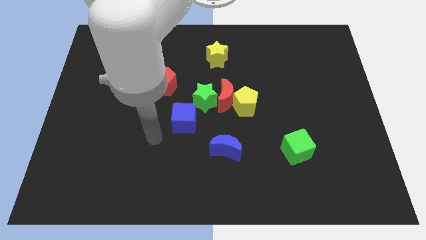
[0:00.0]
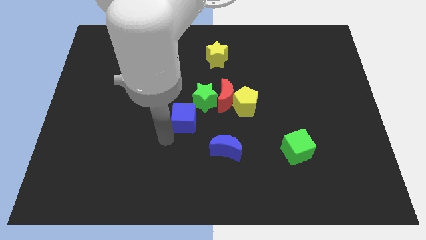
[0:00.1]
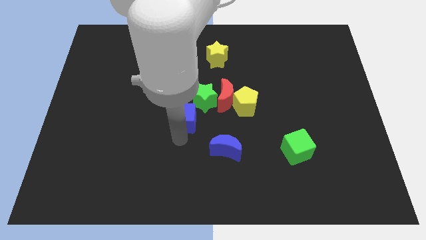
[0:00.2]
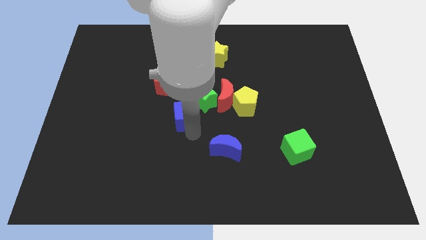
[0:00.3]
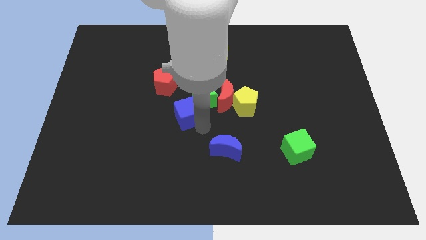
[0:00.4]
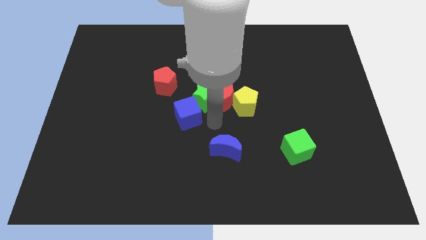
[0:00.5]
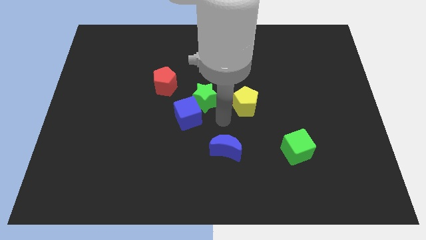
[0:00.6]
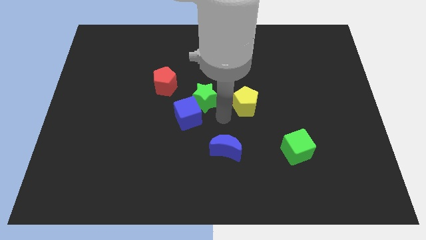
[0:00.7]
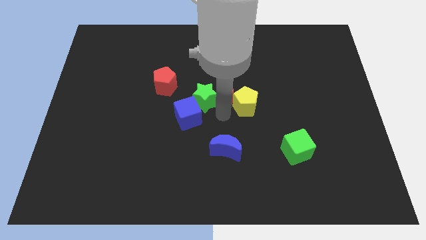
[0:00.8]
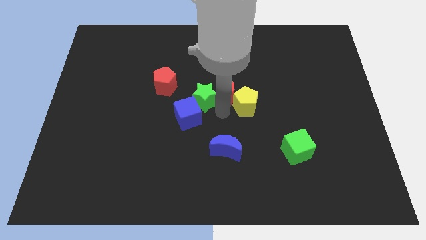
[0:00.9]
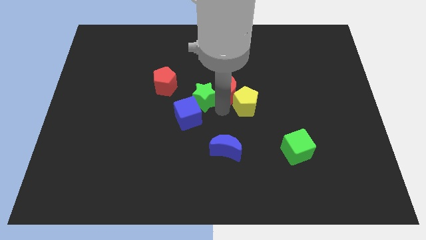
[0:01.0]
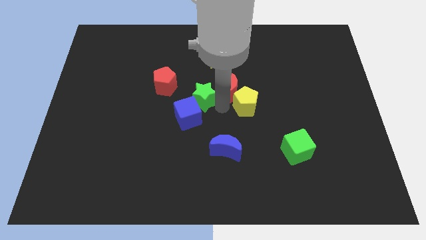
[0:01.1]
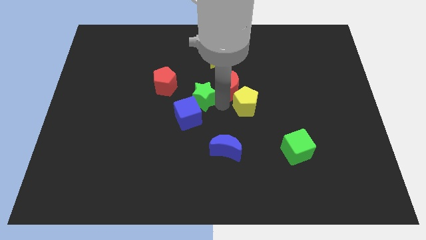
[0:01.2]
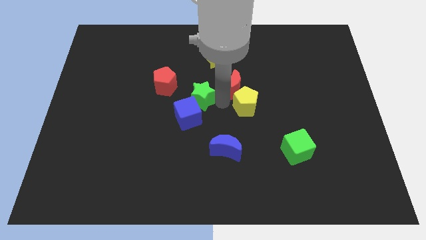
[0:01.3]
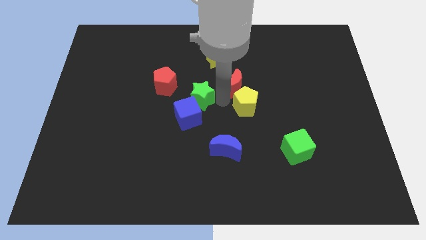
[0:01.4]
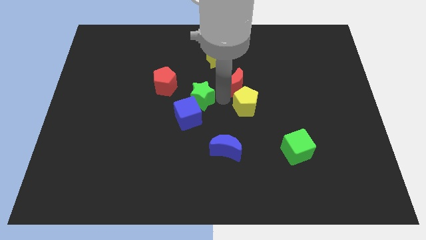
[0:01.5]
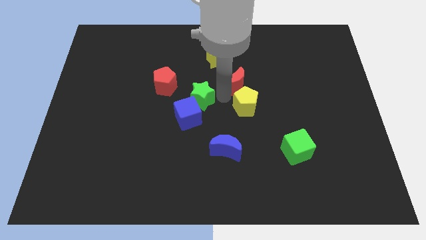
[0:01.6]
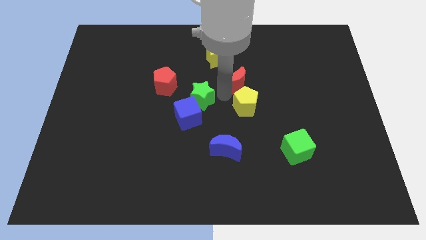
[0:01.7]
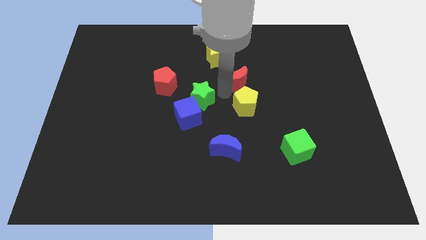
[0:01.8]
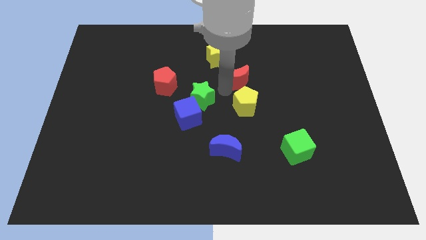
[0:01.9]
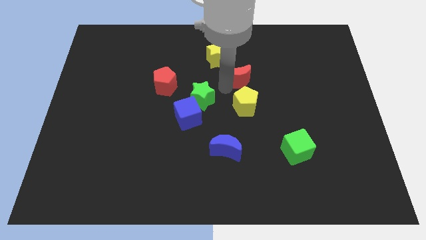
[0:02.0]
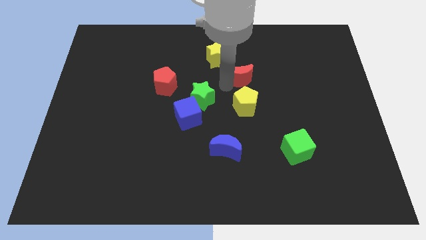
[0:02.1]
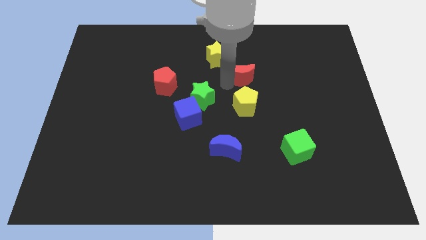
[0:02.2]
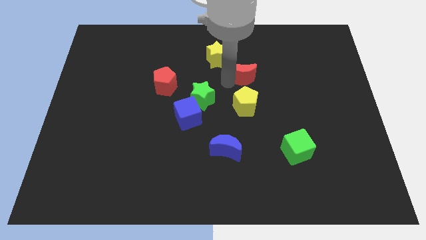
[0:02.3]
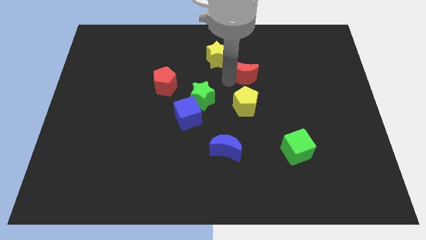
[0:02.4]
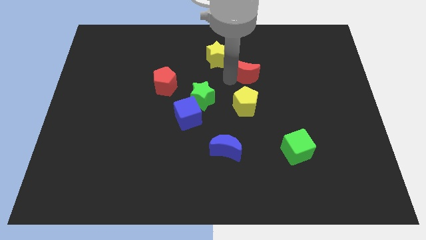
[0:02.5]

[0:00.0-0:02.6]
pull the red moon apart from the yellow pentagon and green star

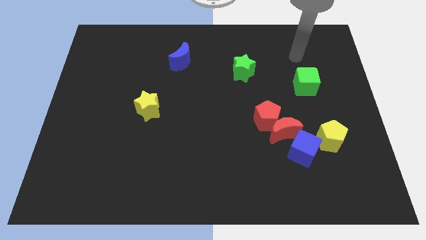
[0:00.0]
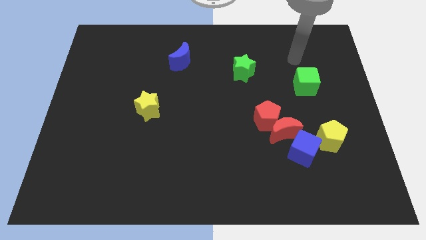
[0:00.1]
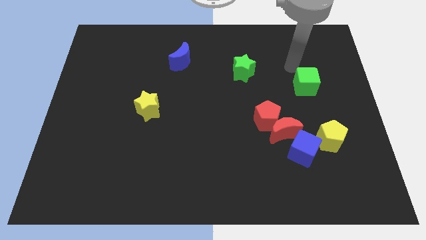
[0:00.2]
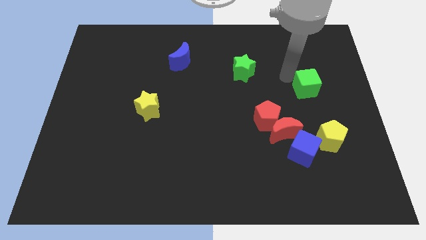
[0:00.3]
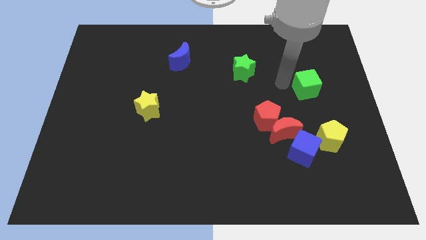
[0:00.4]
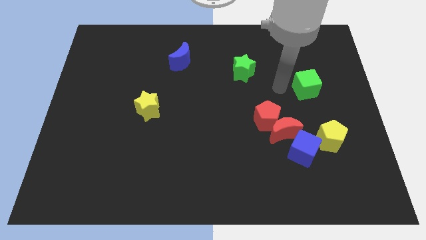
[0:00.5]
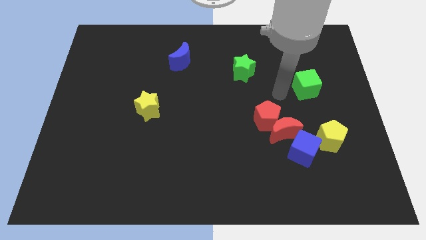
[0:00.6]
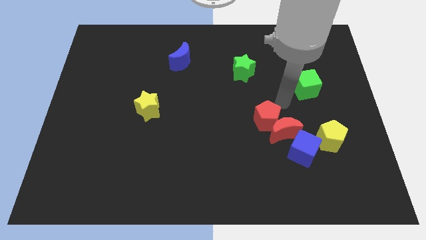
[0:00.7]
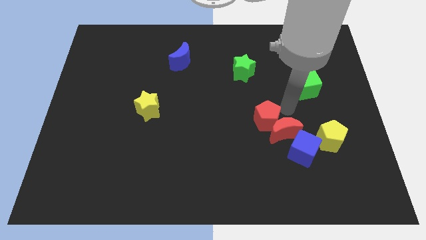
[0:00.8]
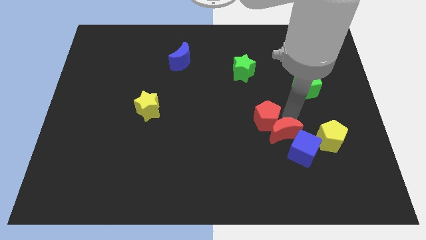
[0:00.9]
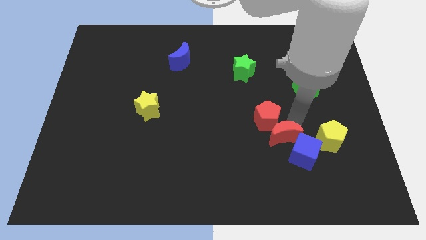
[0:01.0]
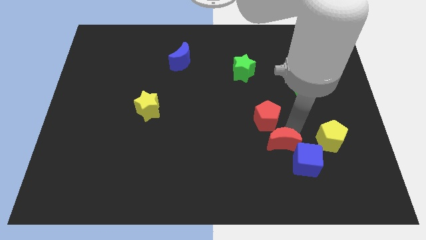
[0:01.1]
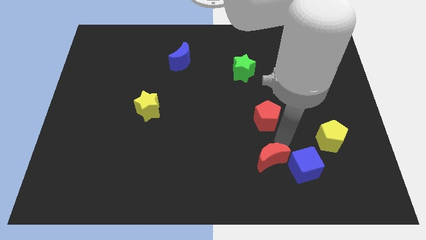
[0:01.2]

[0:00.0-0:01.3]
move the red pentagon away from the red moon

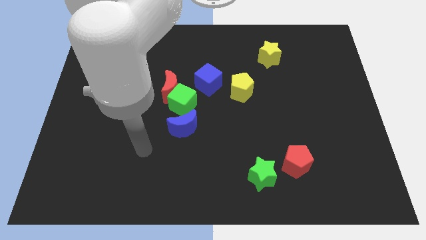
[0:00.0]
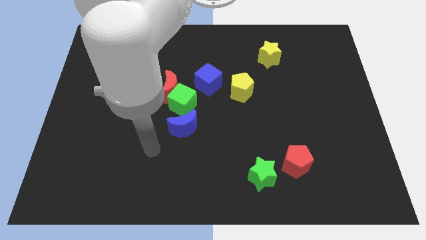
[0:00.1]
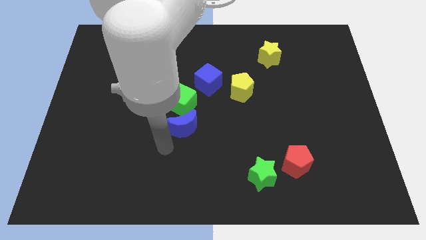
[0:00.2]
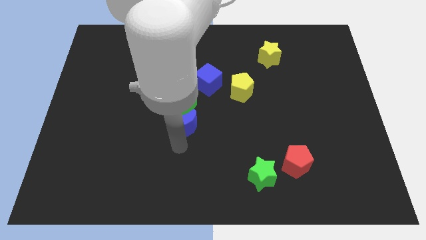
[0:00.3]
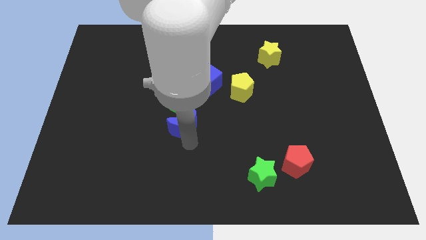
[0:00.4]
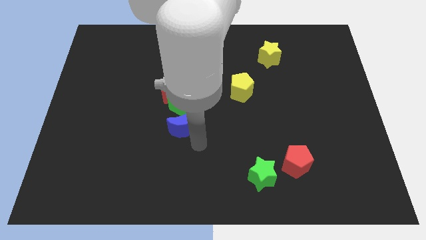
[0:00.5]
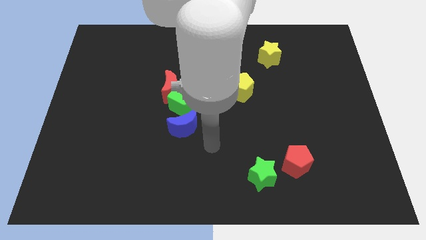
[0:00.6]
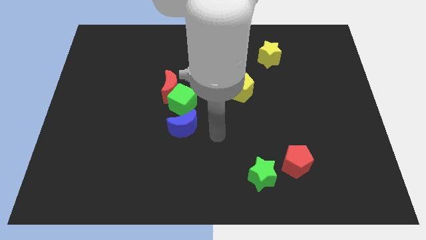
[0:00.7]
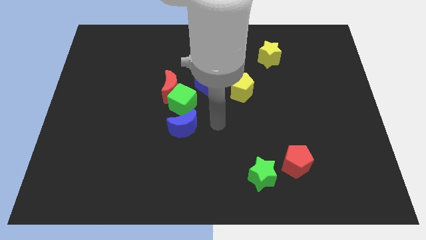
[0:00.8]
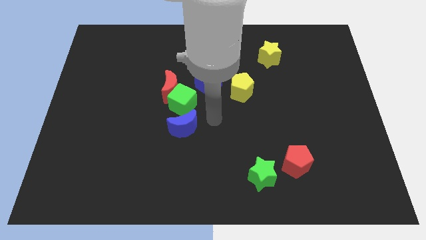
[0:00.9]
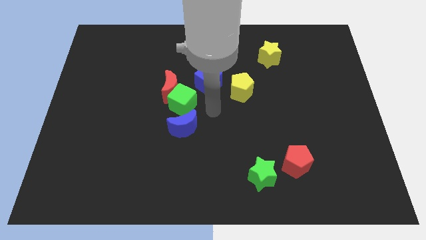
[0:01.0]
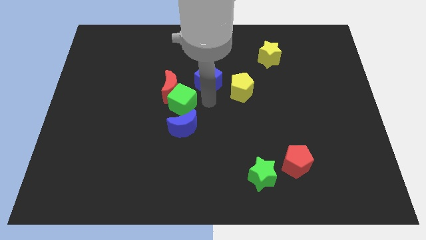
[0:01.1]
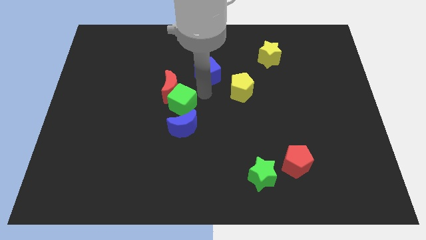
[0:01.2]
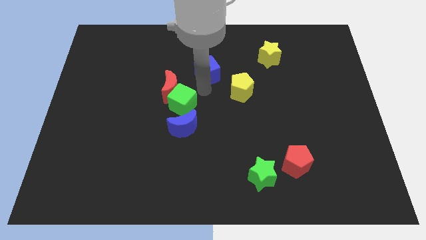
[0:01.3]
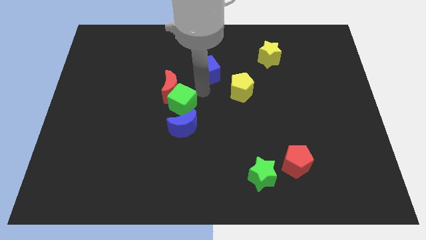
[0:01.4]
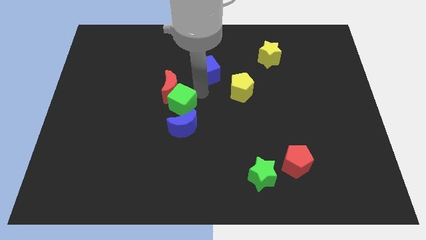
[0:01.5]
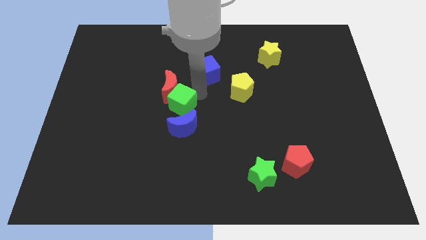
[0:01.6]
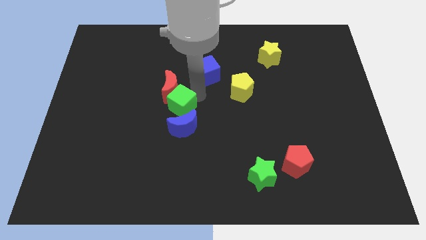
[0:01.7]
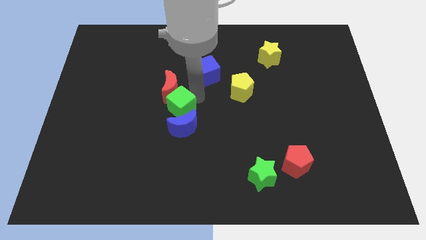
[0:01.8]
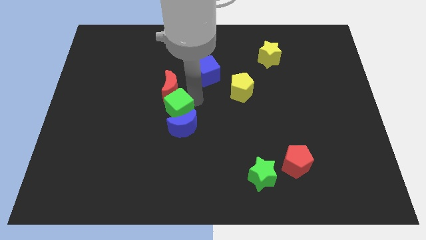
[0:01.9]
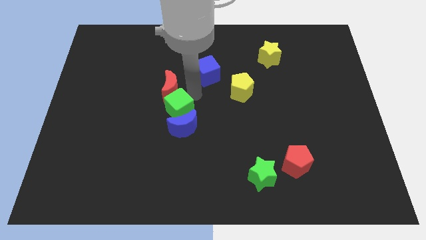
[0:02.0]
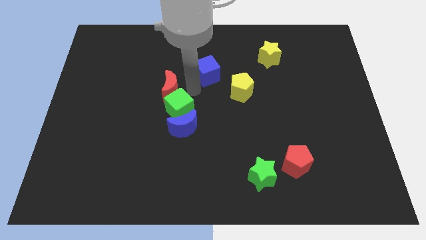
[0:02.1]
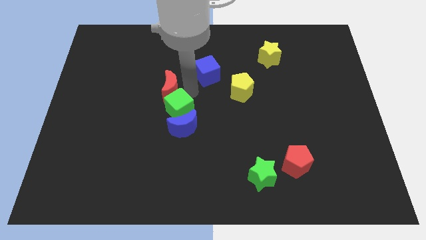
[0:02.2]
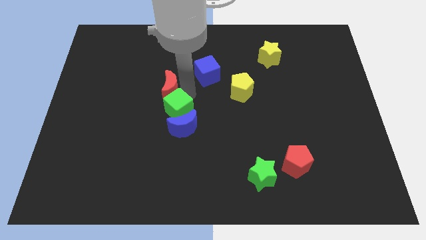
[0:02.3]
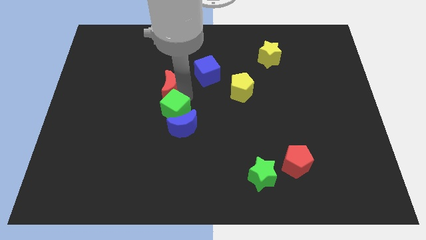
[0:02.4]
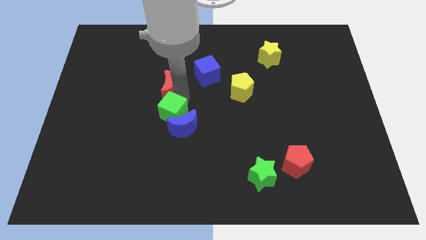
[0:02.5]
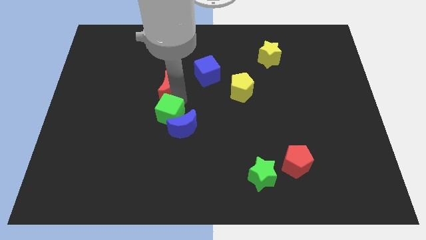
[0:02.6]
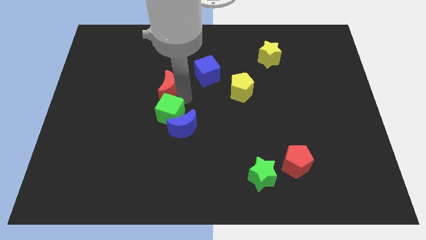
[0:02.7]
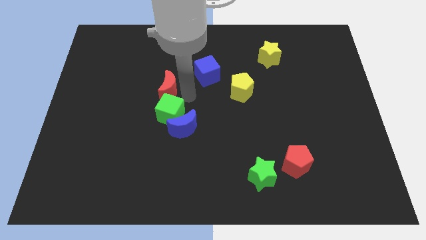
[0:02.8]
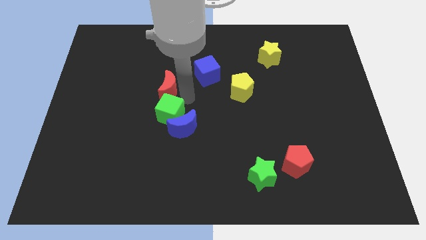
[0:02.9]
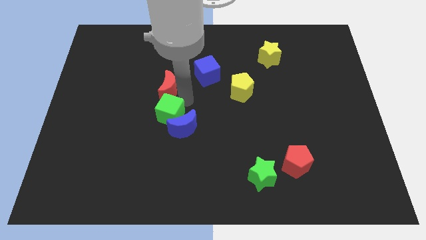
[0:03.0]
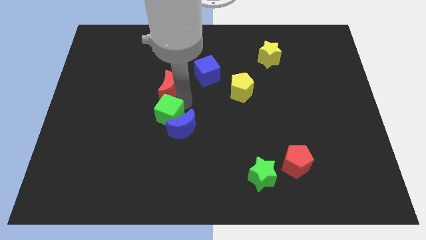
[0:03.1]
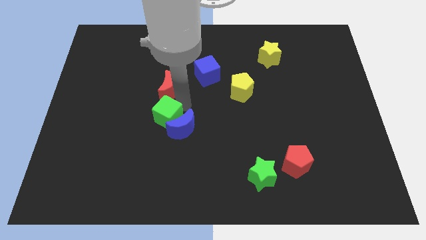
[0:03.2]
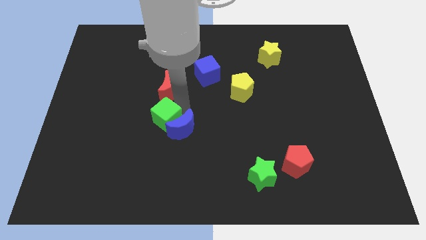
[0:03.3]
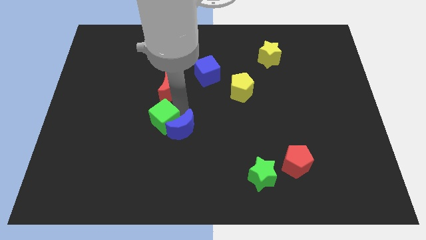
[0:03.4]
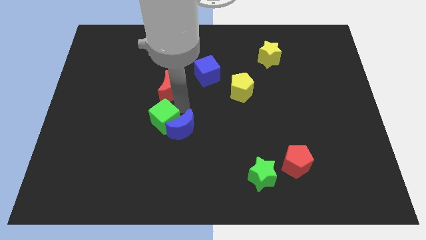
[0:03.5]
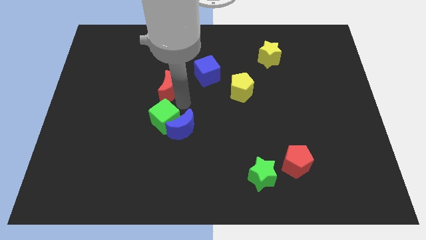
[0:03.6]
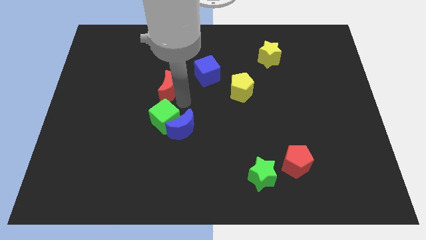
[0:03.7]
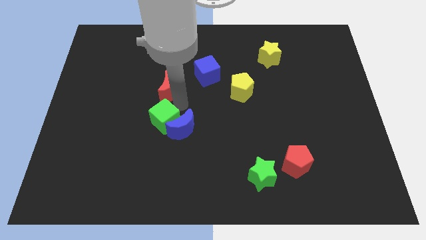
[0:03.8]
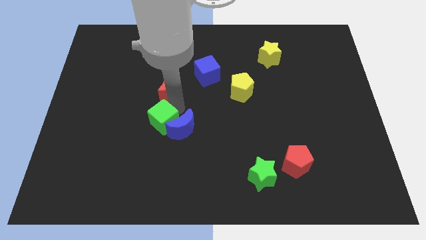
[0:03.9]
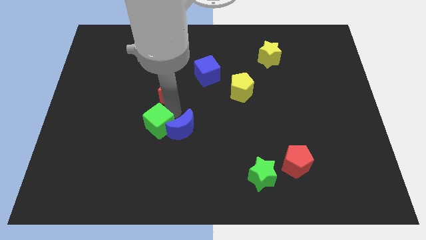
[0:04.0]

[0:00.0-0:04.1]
separate the green cube from the clump

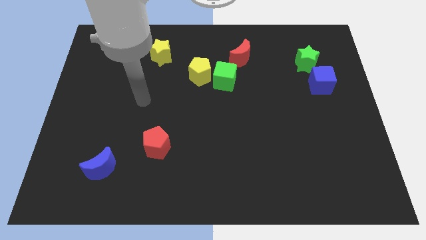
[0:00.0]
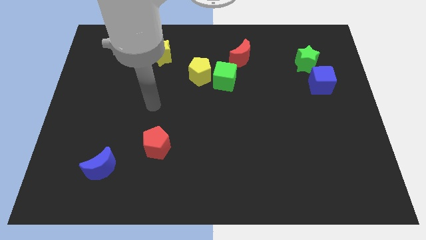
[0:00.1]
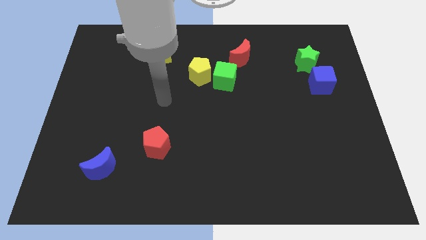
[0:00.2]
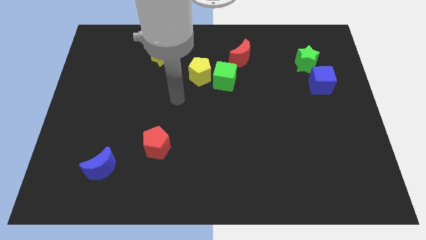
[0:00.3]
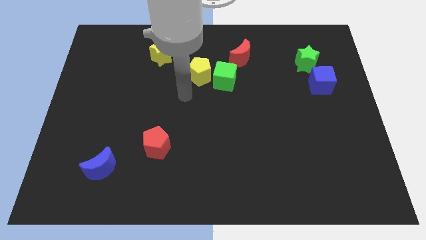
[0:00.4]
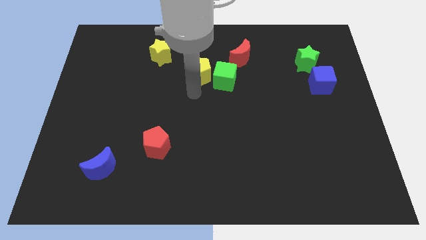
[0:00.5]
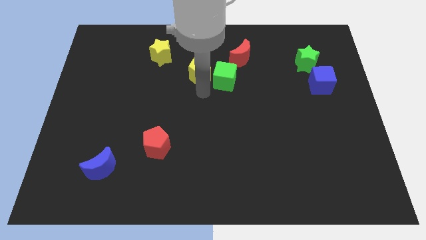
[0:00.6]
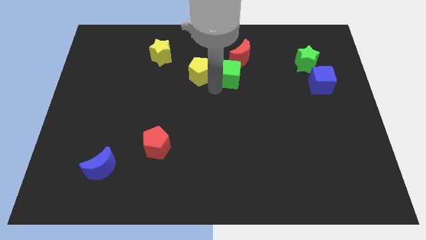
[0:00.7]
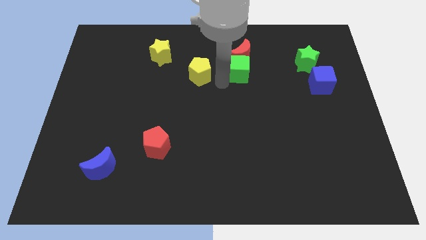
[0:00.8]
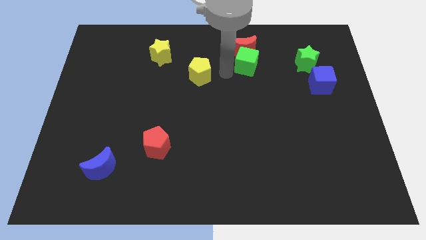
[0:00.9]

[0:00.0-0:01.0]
separate the yellow pentagon from the green cube

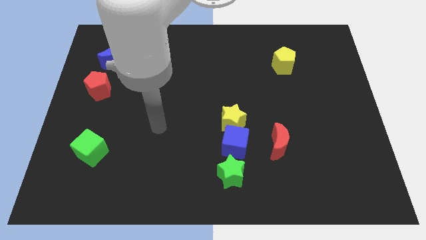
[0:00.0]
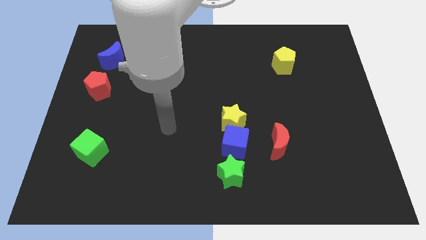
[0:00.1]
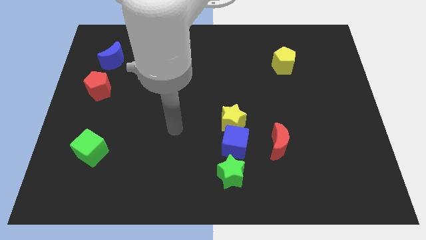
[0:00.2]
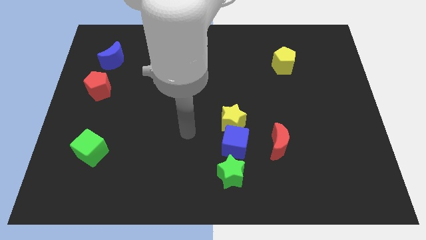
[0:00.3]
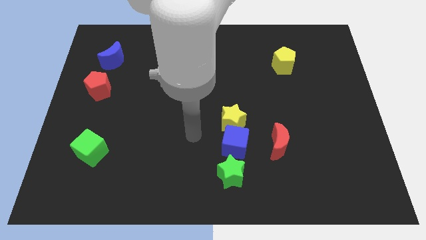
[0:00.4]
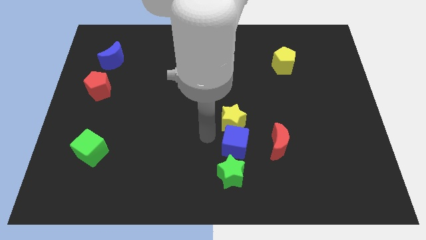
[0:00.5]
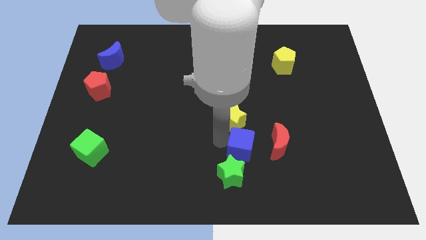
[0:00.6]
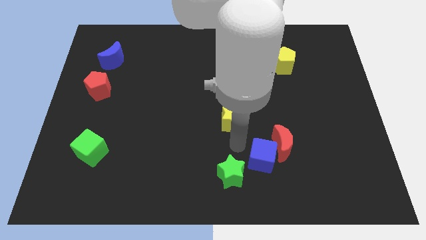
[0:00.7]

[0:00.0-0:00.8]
move the yellow star away from the blue cube
